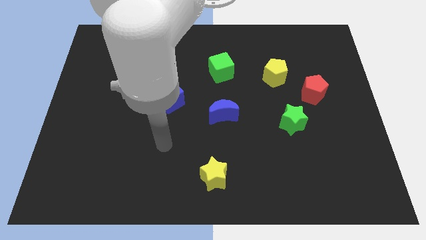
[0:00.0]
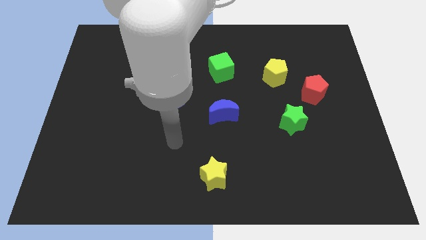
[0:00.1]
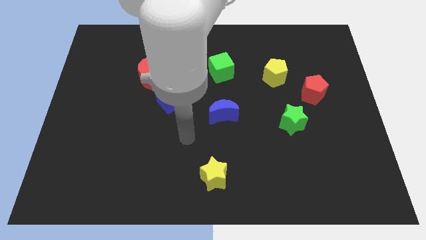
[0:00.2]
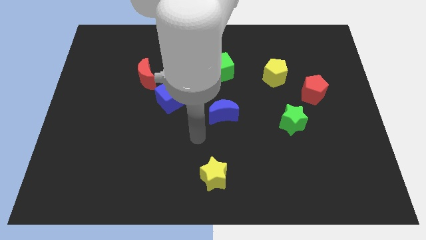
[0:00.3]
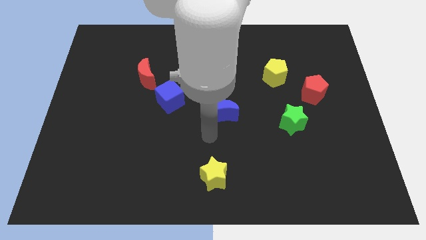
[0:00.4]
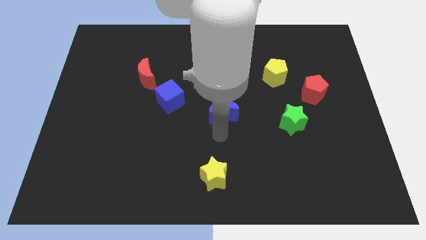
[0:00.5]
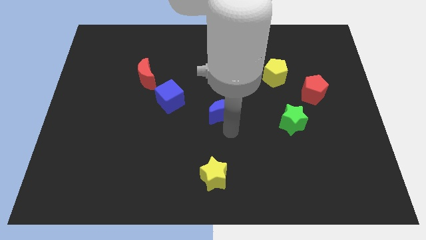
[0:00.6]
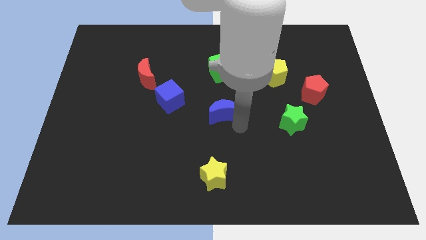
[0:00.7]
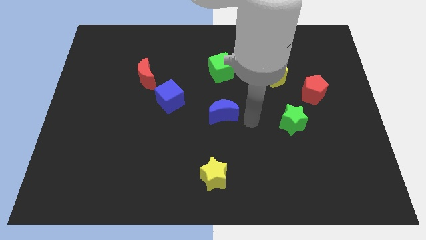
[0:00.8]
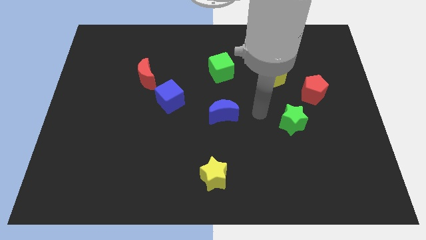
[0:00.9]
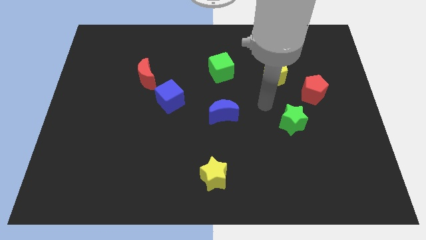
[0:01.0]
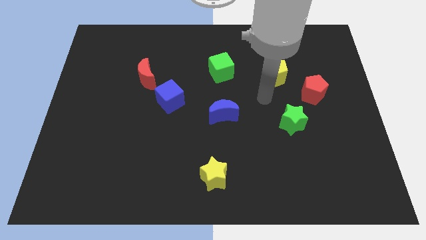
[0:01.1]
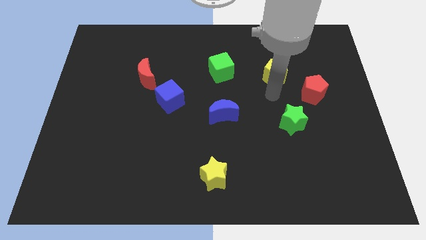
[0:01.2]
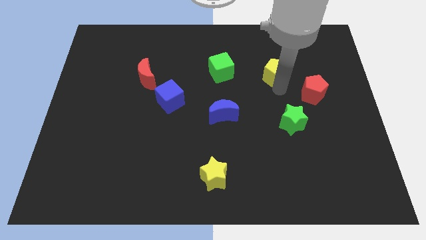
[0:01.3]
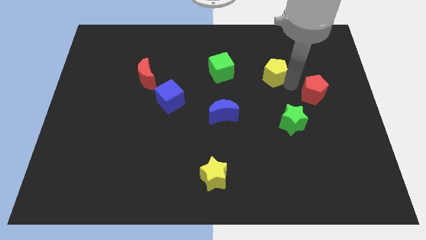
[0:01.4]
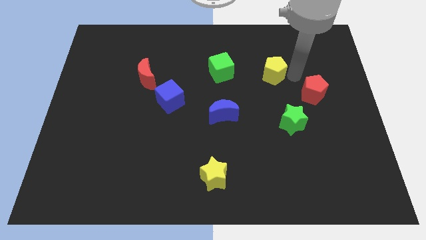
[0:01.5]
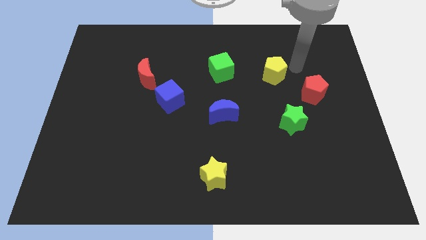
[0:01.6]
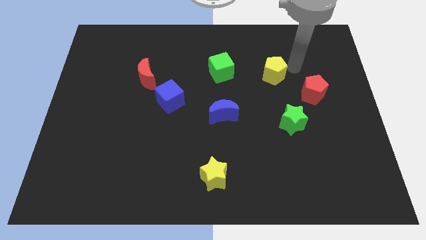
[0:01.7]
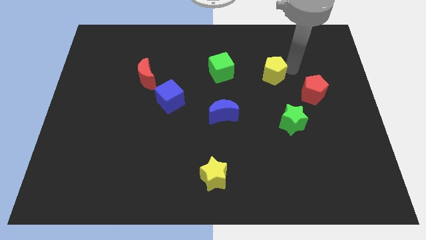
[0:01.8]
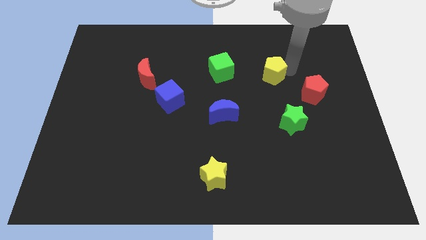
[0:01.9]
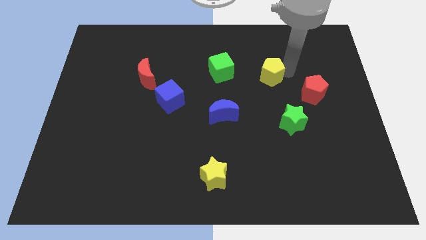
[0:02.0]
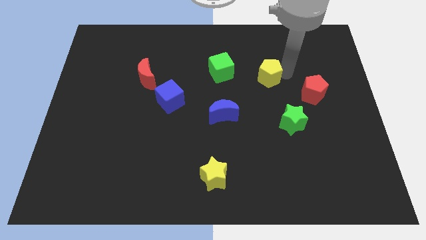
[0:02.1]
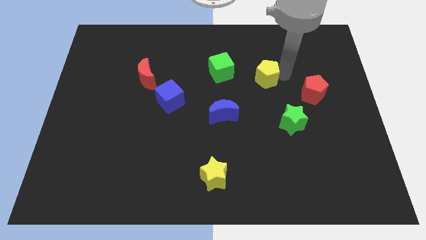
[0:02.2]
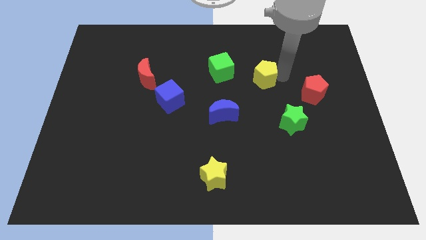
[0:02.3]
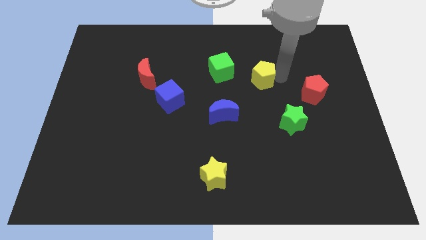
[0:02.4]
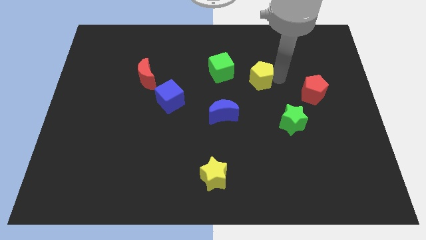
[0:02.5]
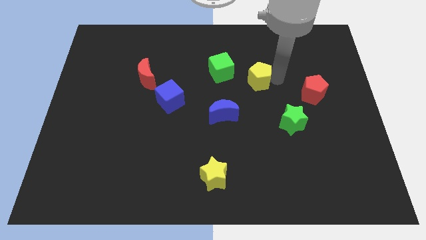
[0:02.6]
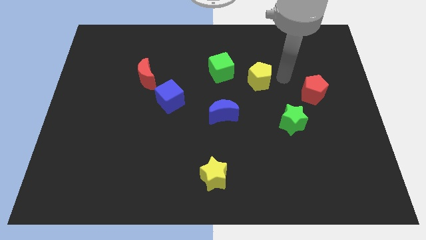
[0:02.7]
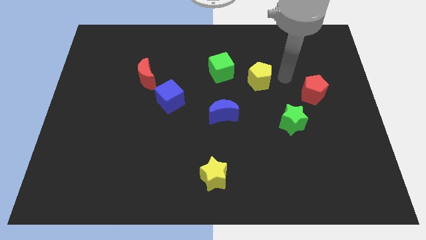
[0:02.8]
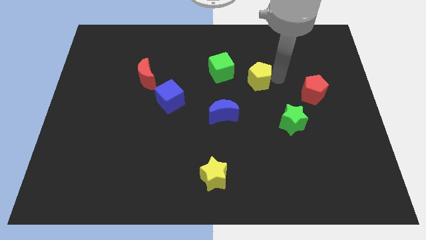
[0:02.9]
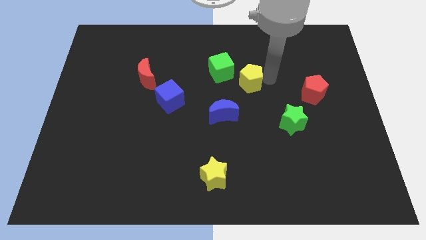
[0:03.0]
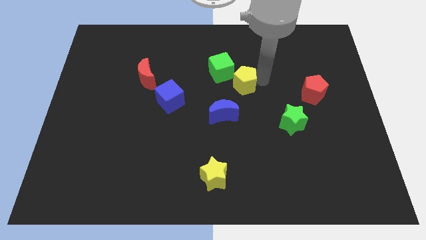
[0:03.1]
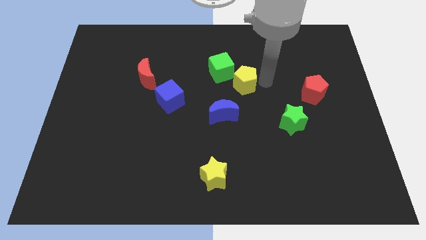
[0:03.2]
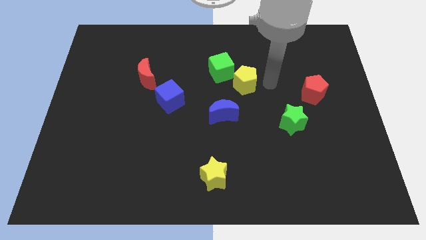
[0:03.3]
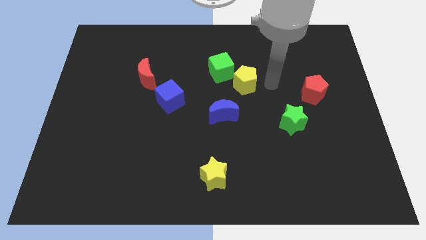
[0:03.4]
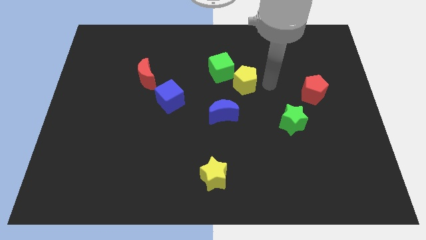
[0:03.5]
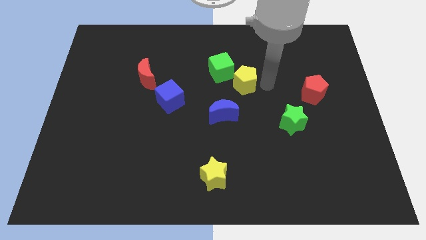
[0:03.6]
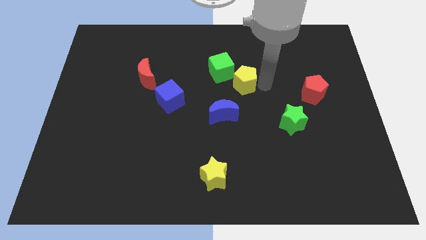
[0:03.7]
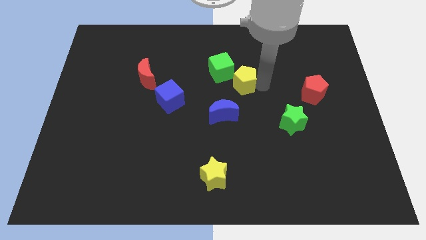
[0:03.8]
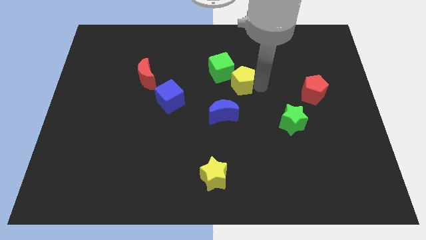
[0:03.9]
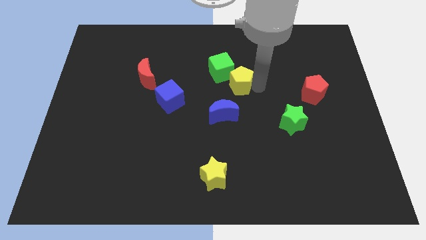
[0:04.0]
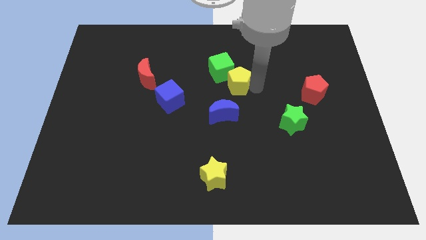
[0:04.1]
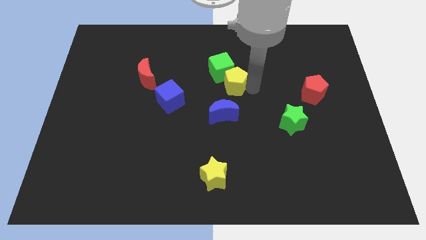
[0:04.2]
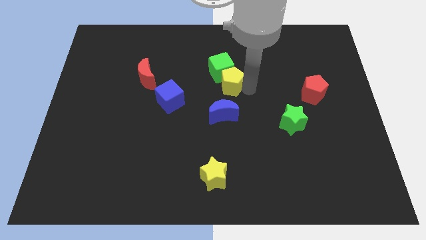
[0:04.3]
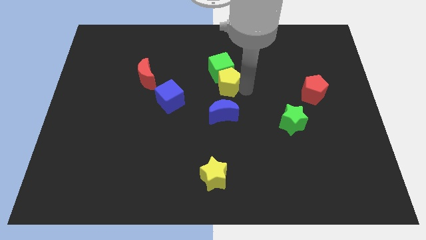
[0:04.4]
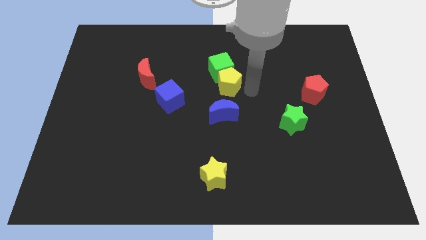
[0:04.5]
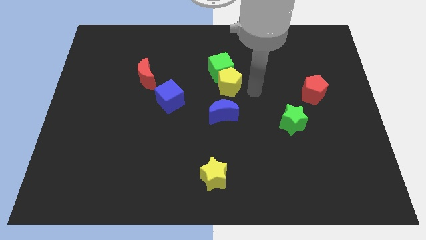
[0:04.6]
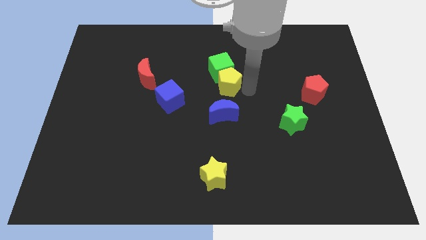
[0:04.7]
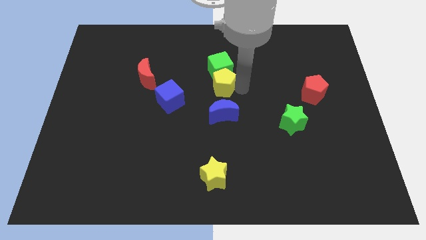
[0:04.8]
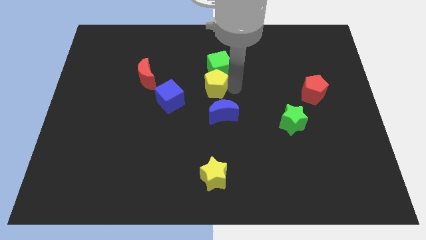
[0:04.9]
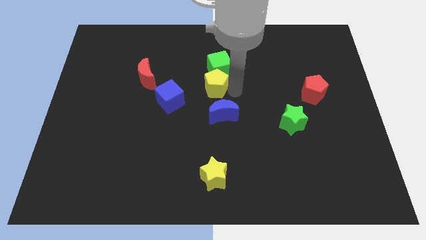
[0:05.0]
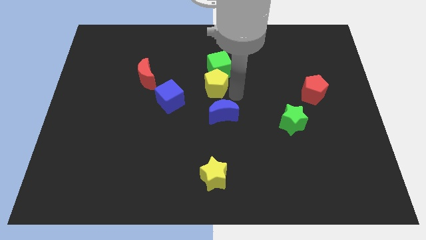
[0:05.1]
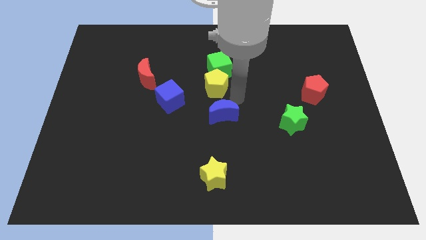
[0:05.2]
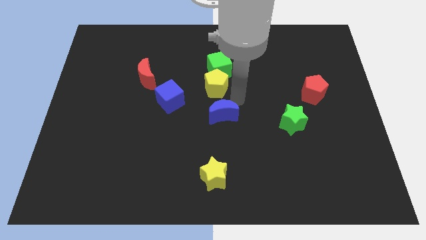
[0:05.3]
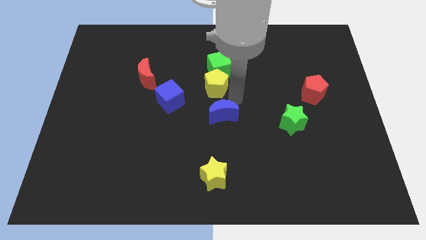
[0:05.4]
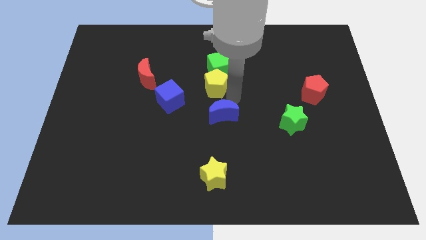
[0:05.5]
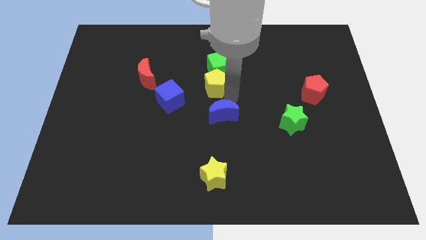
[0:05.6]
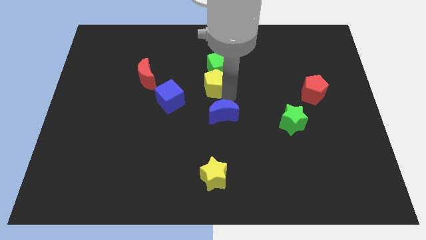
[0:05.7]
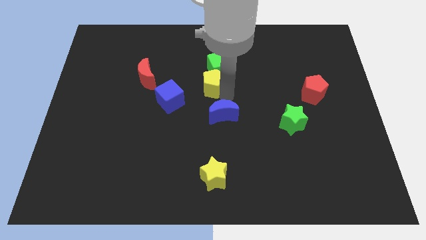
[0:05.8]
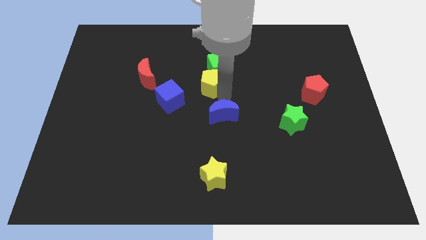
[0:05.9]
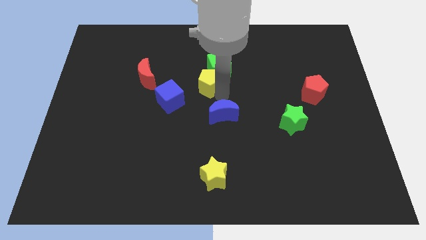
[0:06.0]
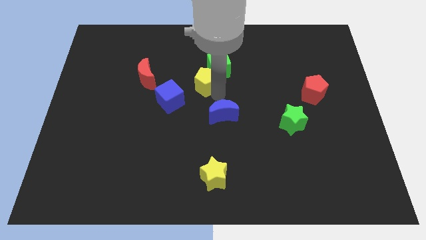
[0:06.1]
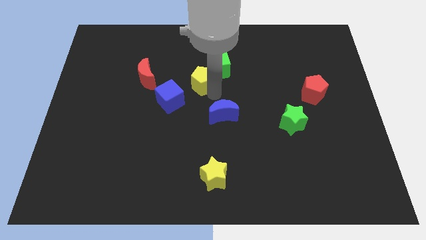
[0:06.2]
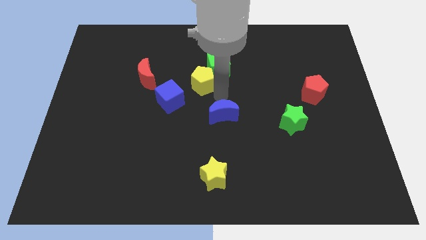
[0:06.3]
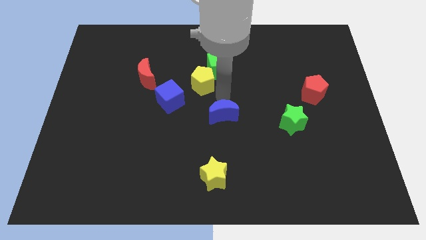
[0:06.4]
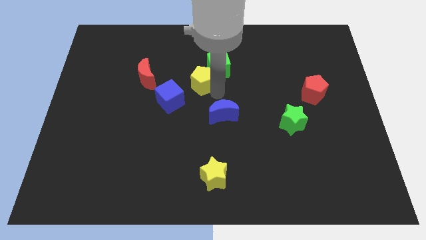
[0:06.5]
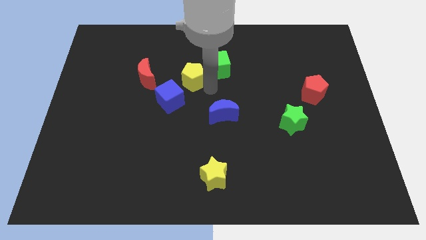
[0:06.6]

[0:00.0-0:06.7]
move the yellow pentagon just left of the green cube
